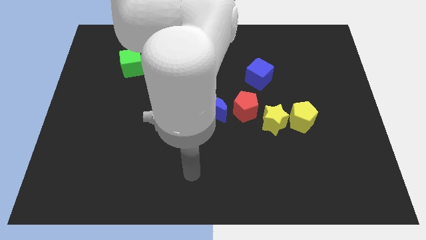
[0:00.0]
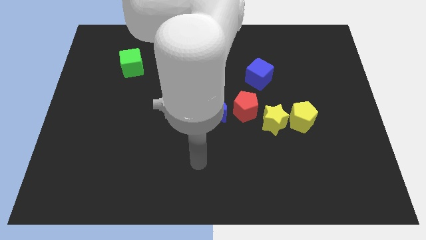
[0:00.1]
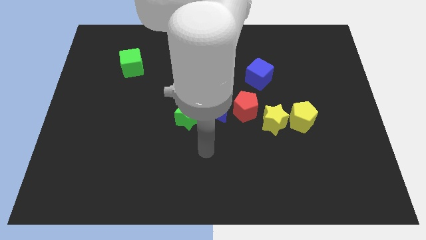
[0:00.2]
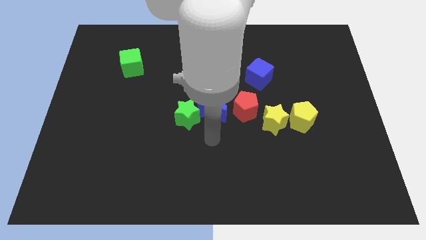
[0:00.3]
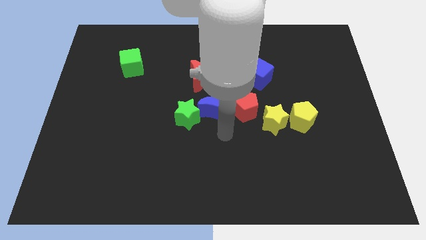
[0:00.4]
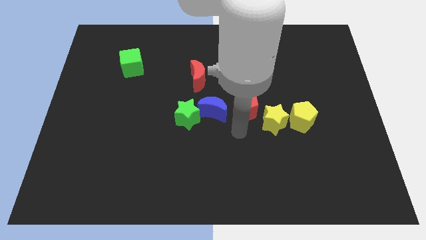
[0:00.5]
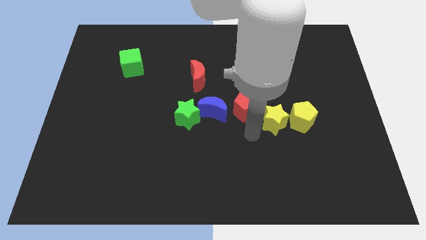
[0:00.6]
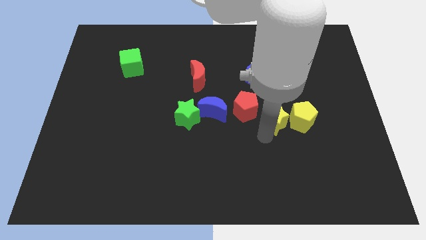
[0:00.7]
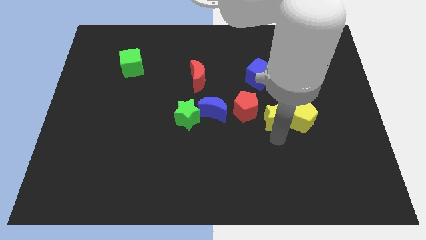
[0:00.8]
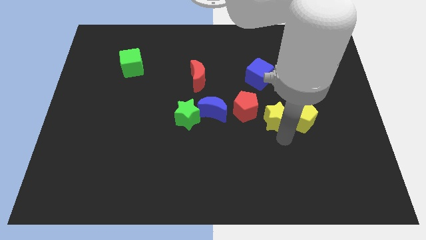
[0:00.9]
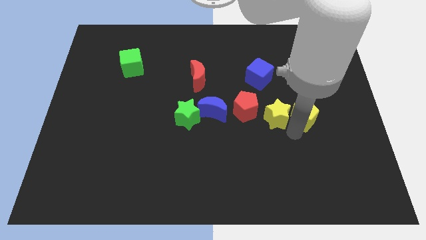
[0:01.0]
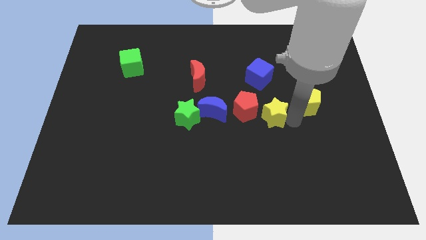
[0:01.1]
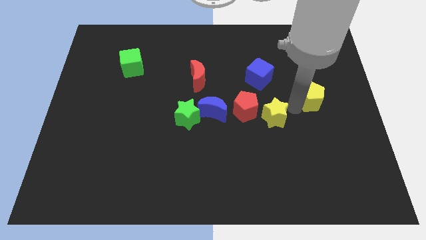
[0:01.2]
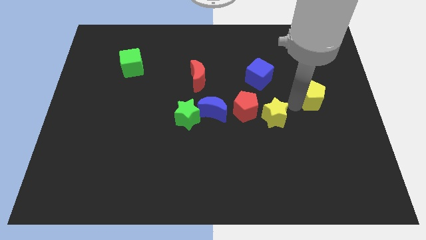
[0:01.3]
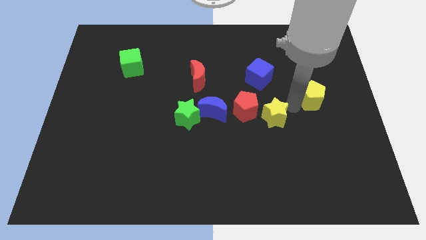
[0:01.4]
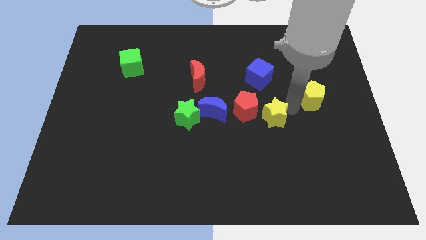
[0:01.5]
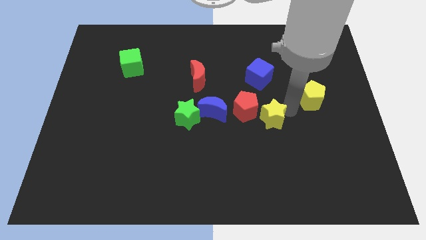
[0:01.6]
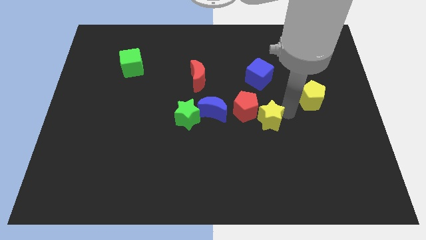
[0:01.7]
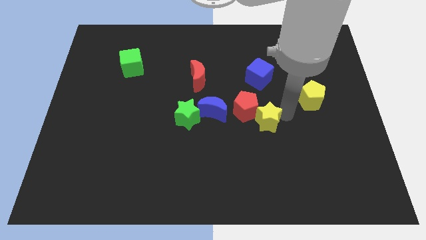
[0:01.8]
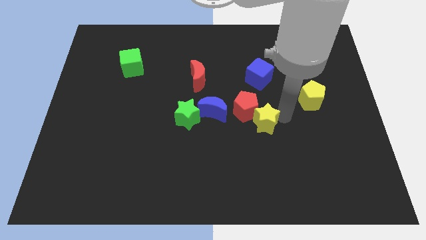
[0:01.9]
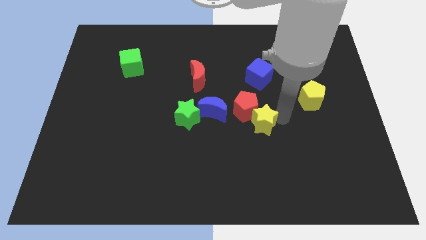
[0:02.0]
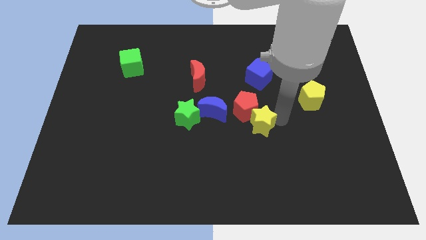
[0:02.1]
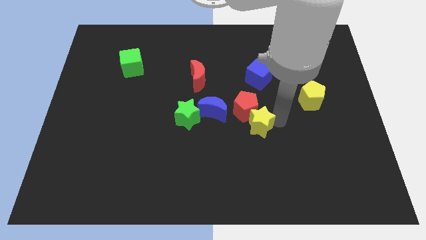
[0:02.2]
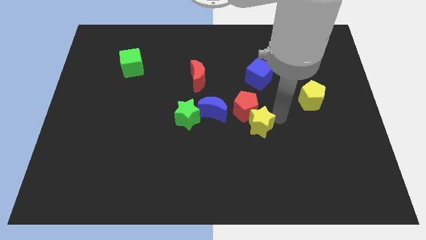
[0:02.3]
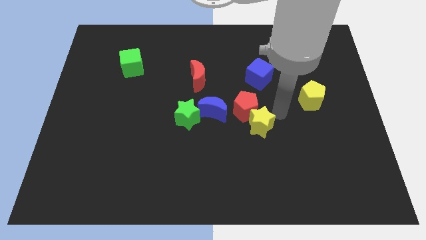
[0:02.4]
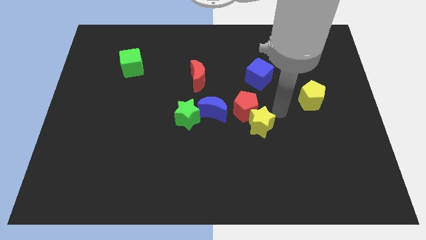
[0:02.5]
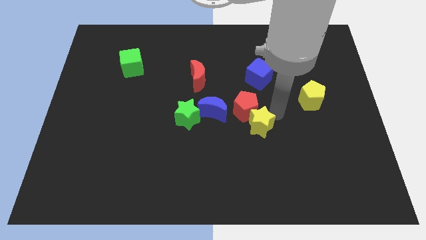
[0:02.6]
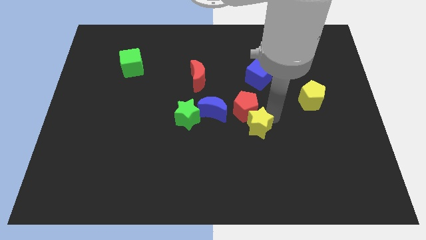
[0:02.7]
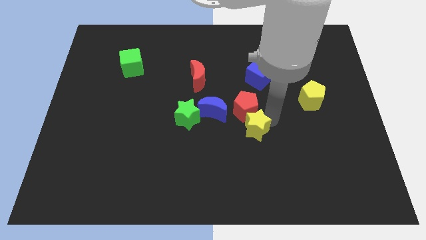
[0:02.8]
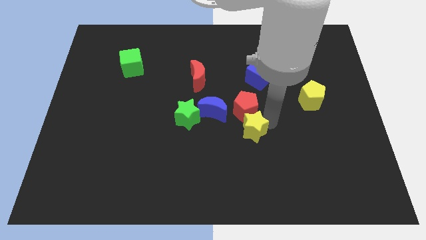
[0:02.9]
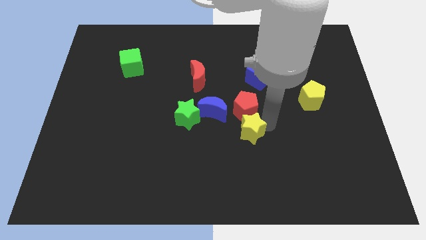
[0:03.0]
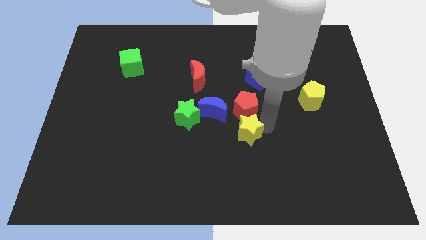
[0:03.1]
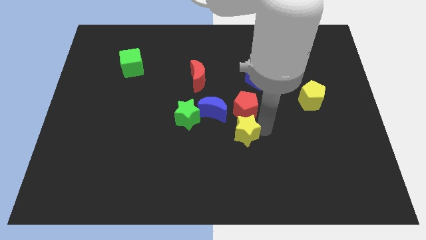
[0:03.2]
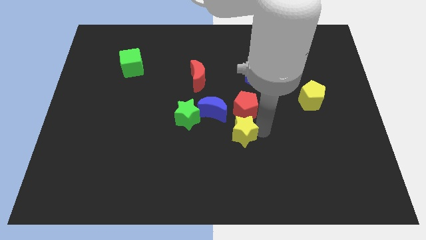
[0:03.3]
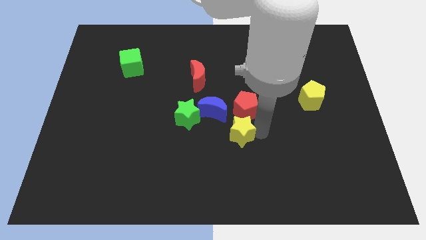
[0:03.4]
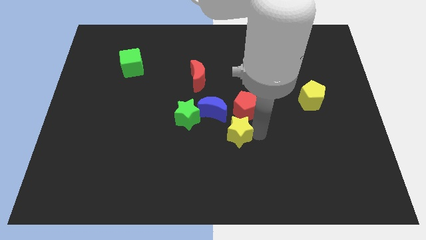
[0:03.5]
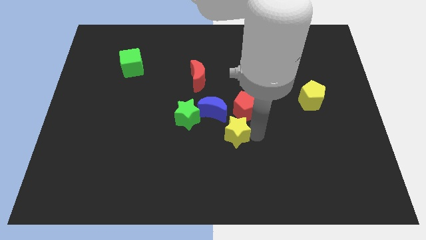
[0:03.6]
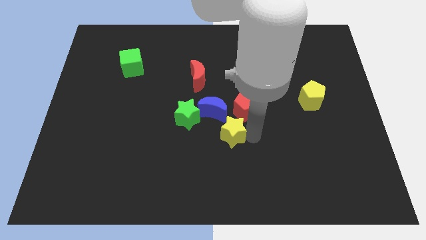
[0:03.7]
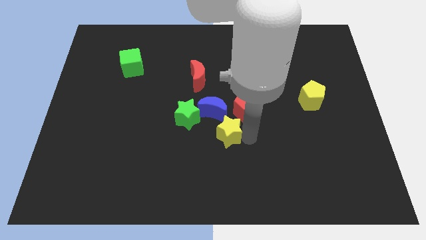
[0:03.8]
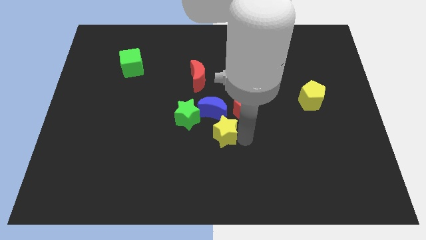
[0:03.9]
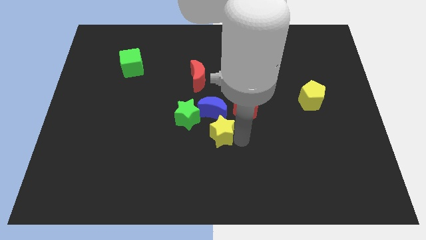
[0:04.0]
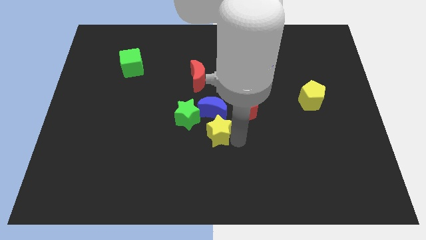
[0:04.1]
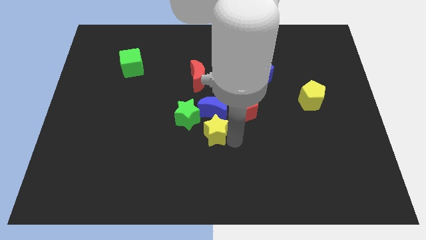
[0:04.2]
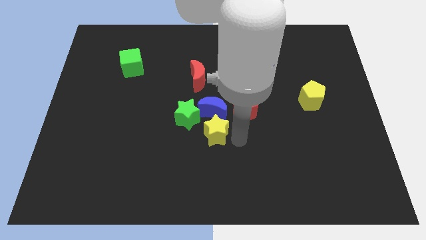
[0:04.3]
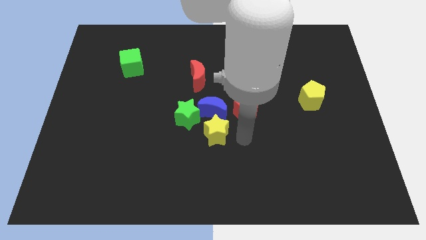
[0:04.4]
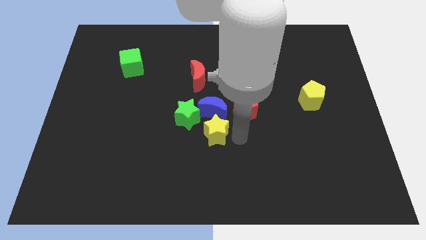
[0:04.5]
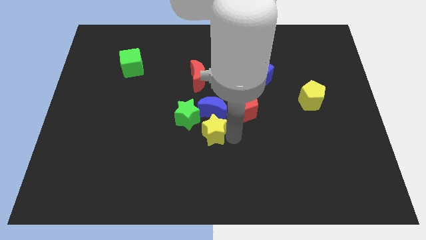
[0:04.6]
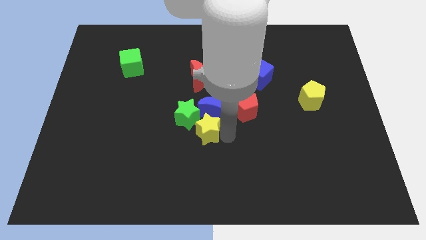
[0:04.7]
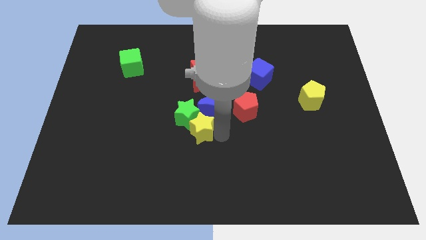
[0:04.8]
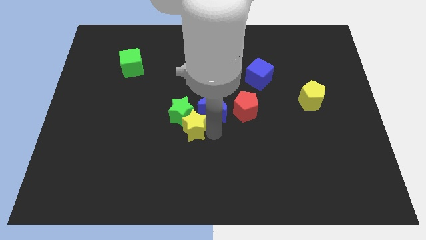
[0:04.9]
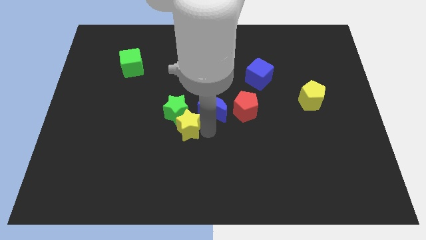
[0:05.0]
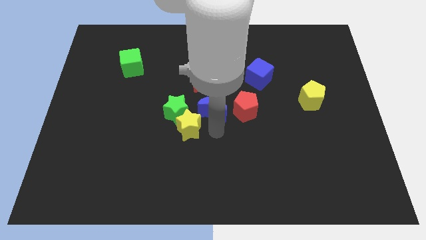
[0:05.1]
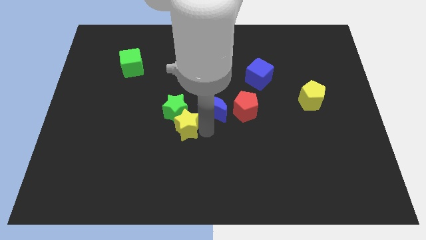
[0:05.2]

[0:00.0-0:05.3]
push the yellow star left

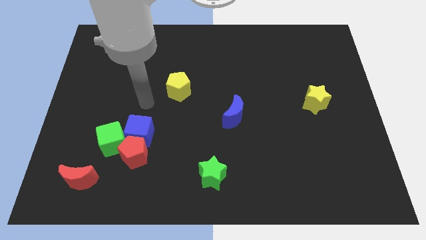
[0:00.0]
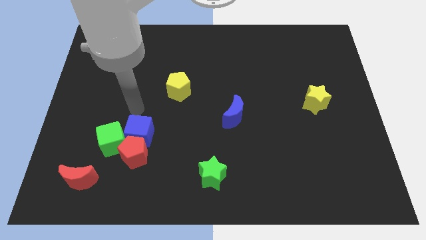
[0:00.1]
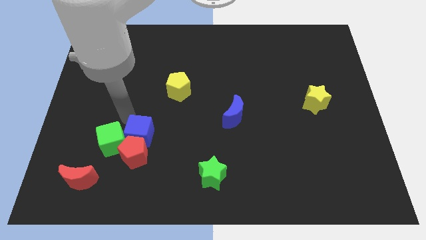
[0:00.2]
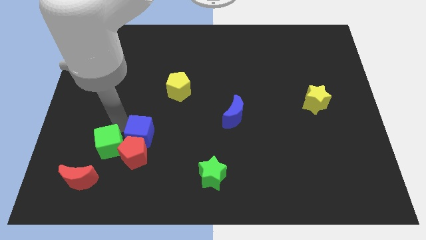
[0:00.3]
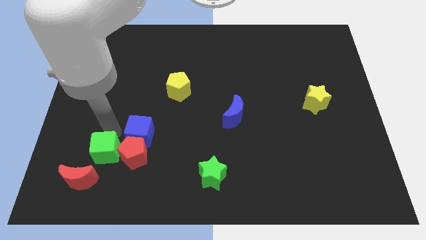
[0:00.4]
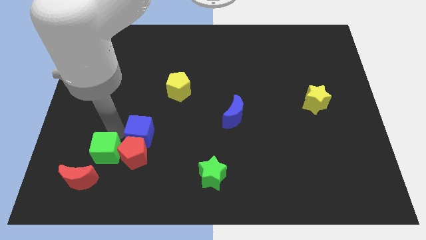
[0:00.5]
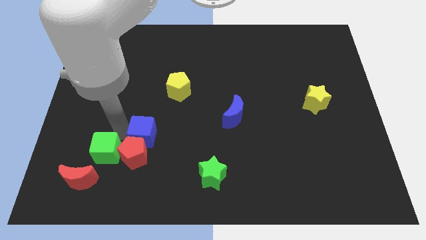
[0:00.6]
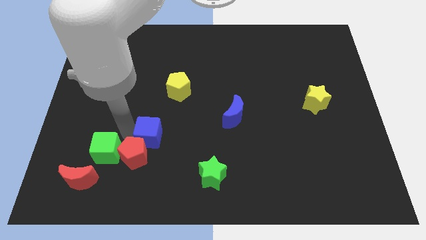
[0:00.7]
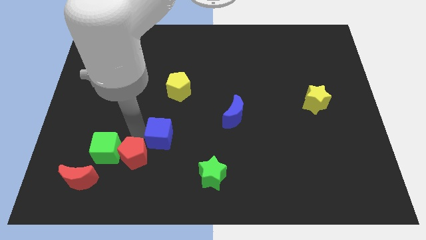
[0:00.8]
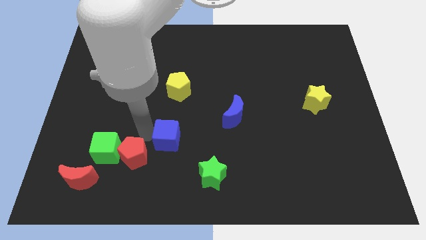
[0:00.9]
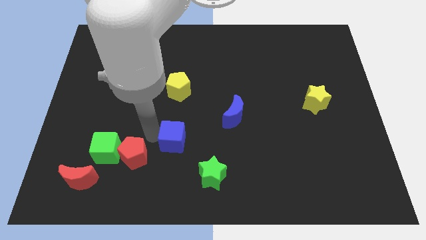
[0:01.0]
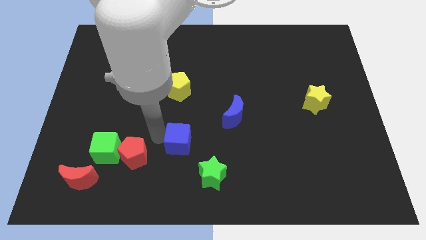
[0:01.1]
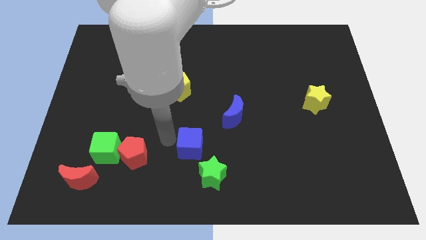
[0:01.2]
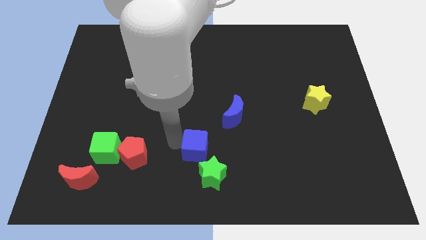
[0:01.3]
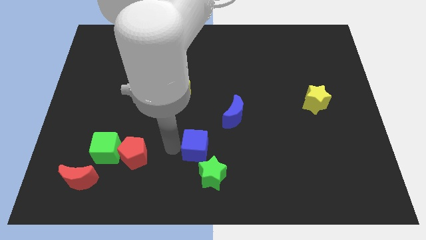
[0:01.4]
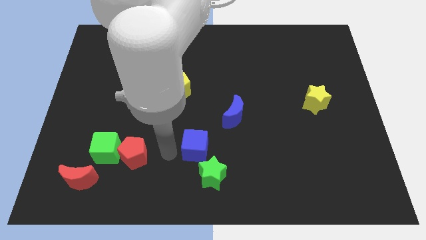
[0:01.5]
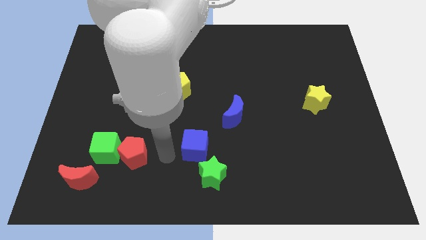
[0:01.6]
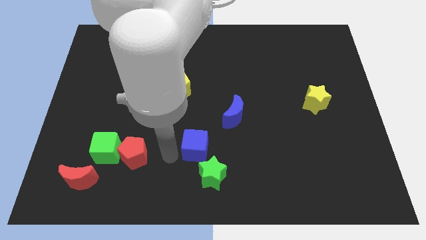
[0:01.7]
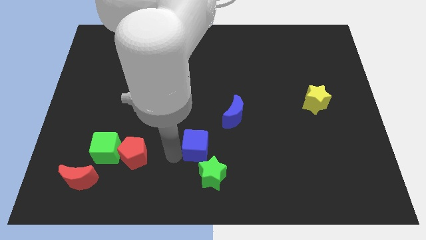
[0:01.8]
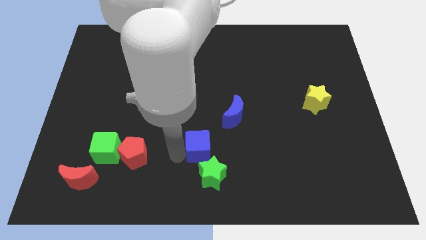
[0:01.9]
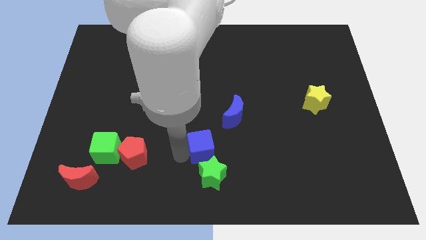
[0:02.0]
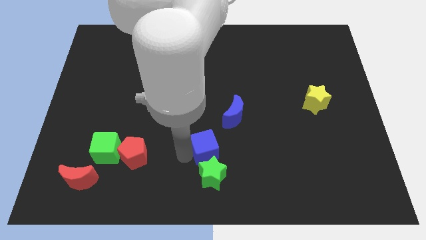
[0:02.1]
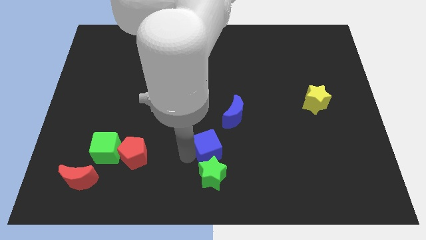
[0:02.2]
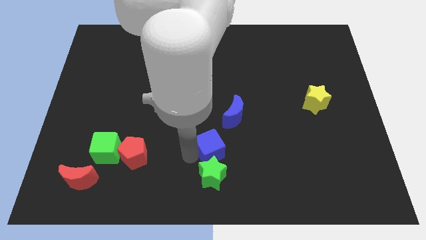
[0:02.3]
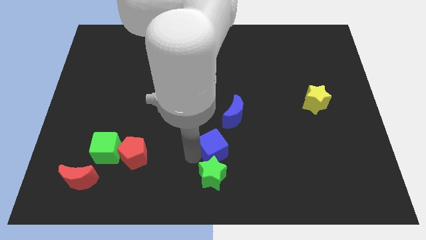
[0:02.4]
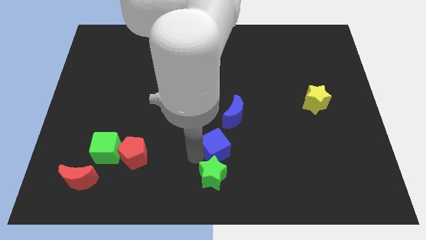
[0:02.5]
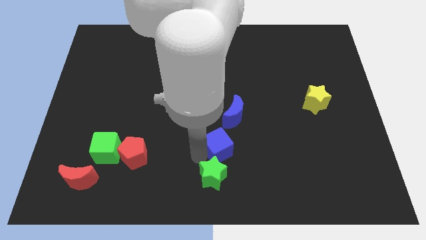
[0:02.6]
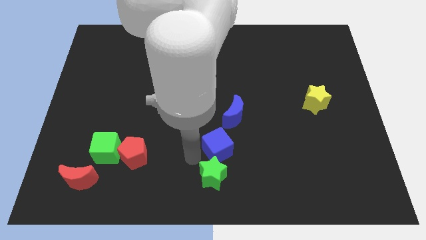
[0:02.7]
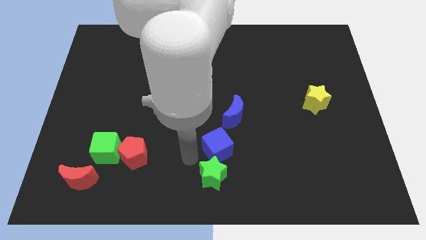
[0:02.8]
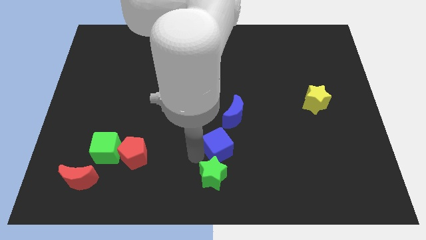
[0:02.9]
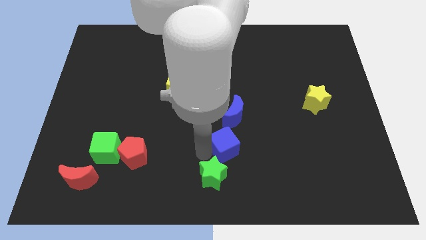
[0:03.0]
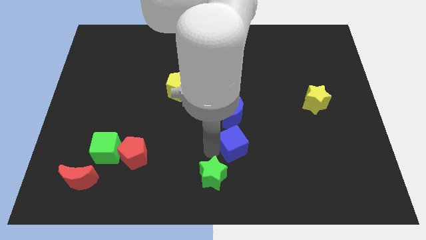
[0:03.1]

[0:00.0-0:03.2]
push the blue cube right
